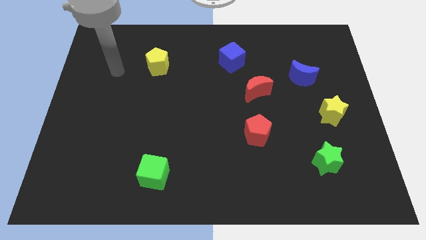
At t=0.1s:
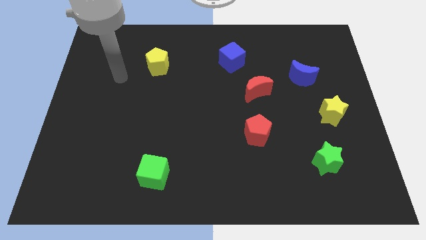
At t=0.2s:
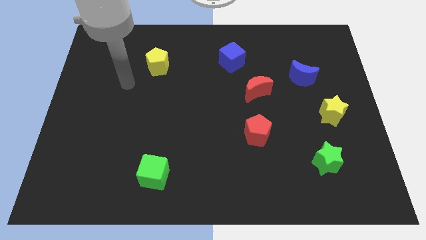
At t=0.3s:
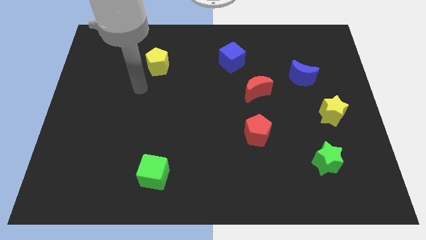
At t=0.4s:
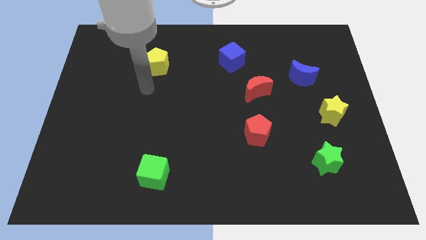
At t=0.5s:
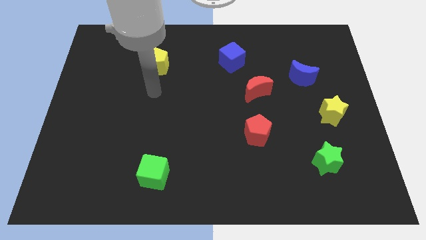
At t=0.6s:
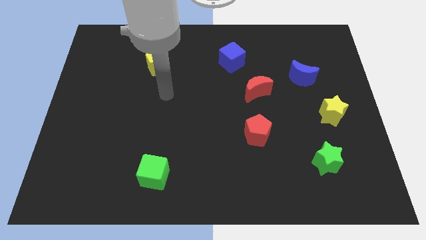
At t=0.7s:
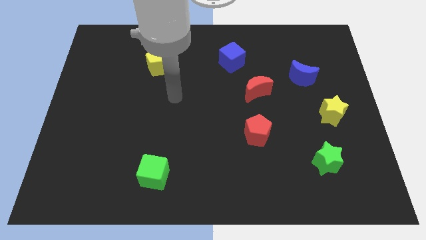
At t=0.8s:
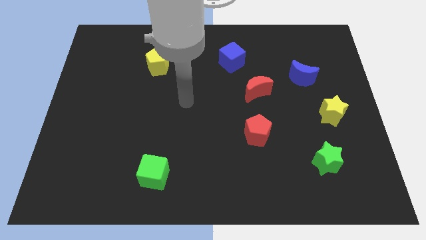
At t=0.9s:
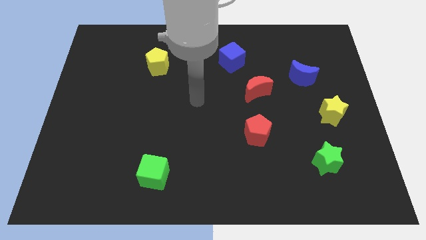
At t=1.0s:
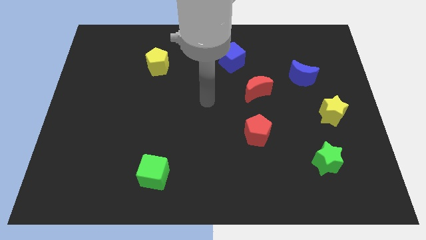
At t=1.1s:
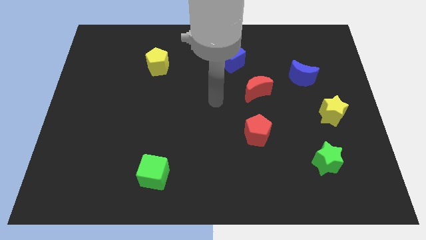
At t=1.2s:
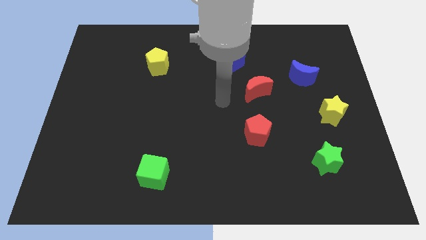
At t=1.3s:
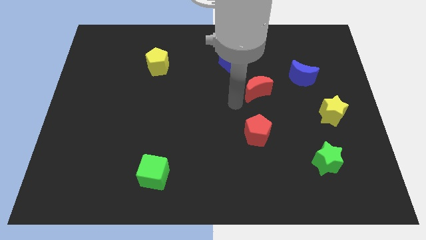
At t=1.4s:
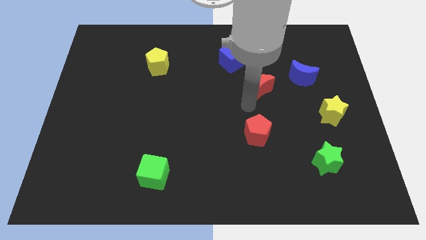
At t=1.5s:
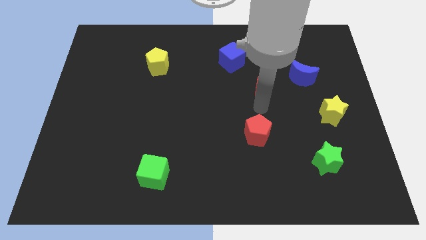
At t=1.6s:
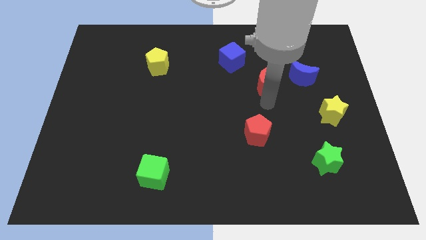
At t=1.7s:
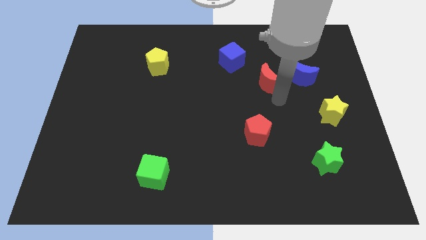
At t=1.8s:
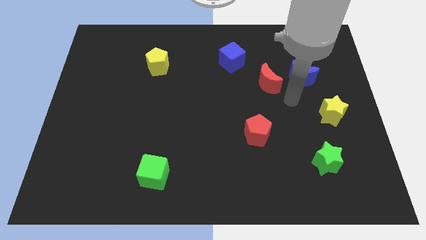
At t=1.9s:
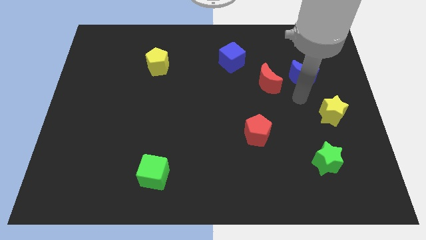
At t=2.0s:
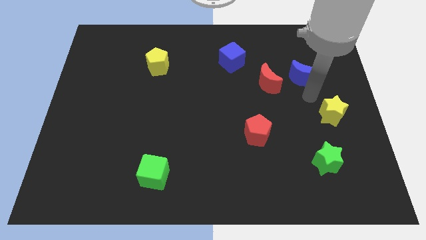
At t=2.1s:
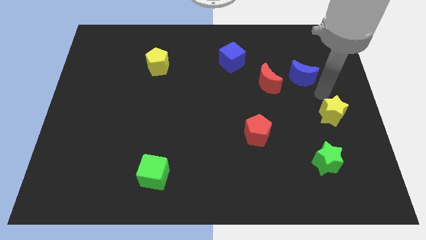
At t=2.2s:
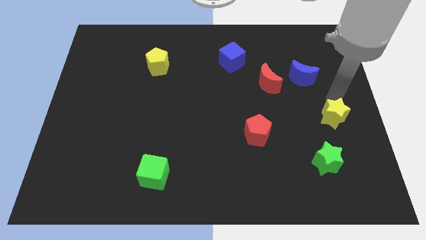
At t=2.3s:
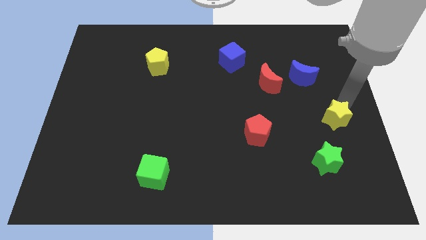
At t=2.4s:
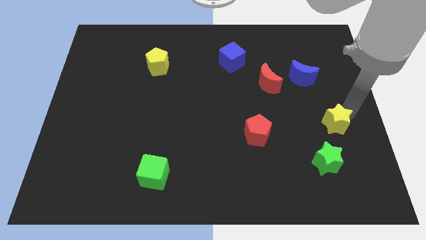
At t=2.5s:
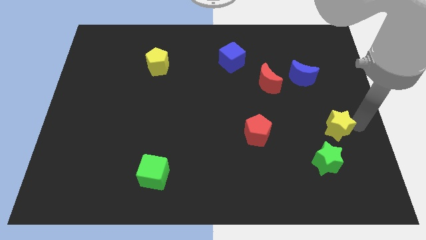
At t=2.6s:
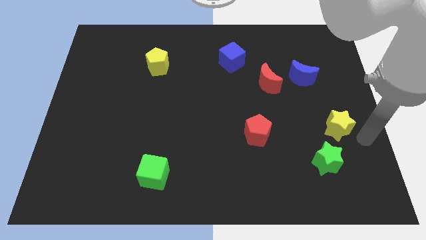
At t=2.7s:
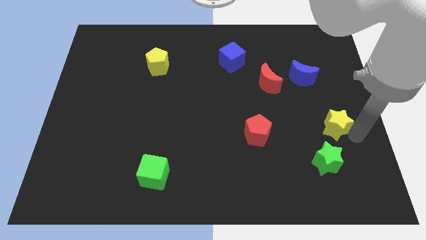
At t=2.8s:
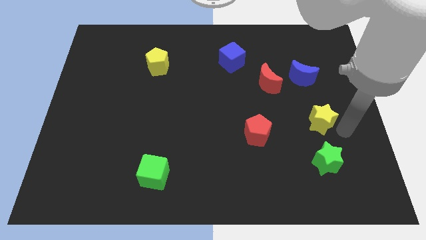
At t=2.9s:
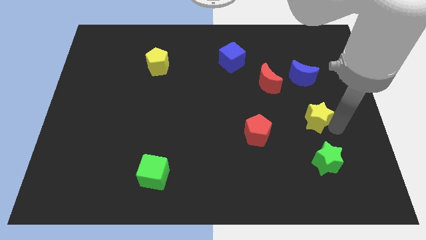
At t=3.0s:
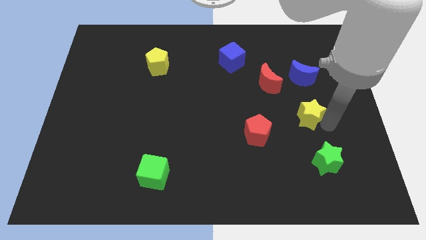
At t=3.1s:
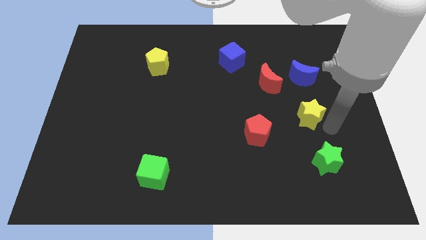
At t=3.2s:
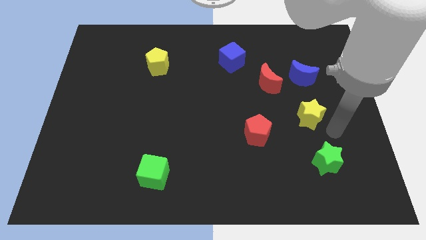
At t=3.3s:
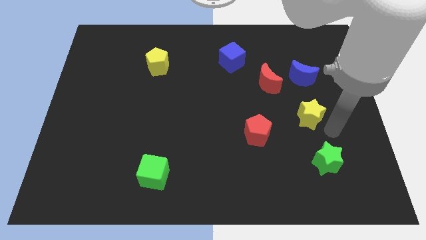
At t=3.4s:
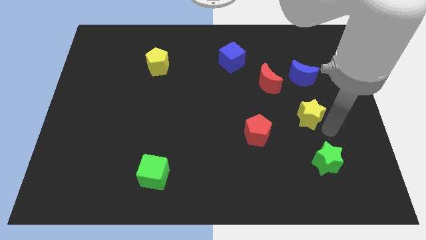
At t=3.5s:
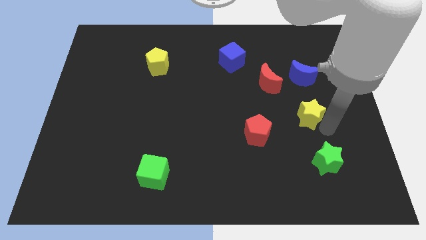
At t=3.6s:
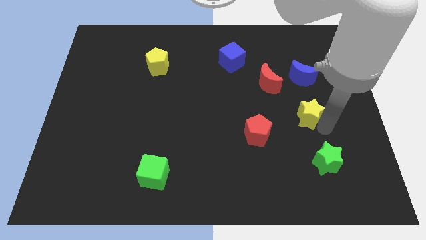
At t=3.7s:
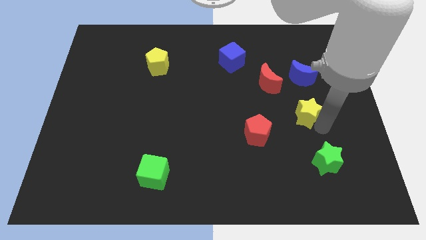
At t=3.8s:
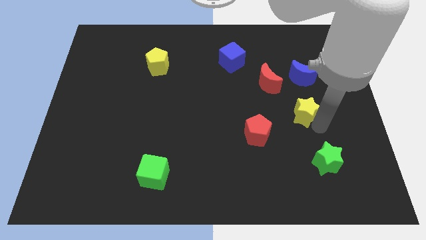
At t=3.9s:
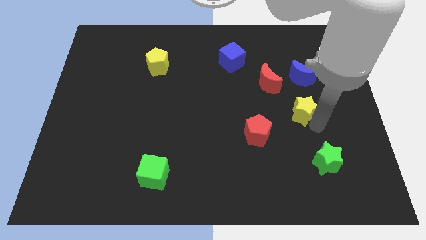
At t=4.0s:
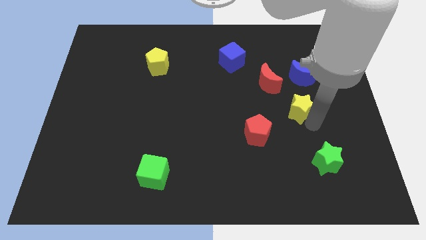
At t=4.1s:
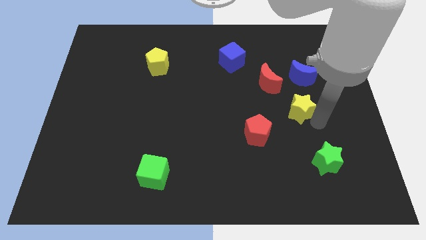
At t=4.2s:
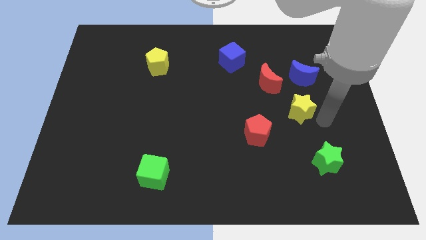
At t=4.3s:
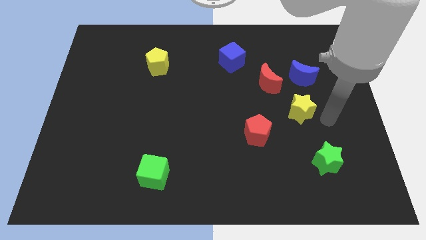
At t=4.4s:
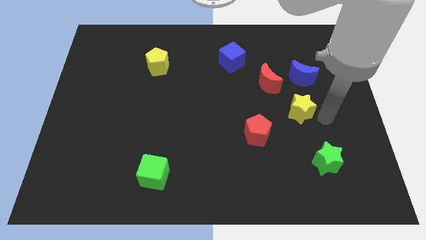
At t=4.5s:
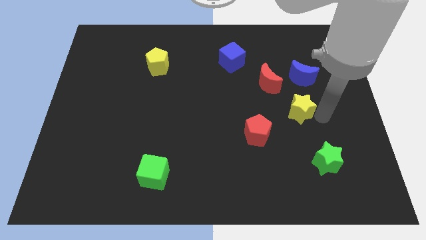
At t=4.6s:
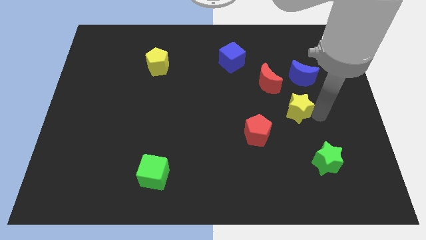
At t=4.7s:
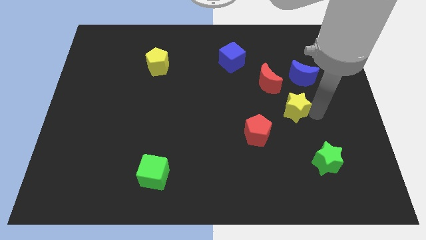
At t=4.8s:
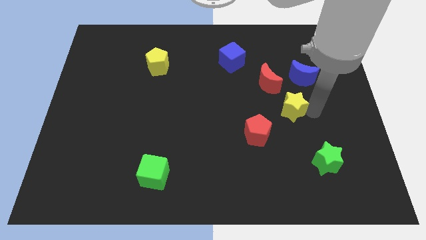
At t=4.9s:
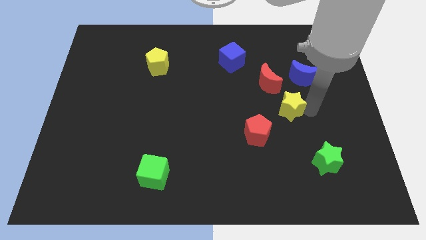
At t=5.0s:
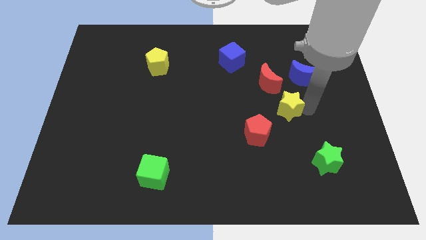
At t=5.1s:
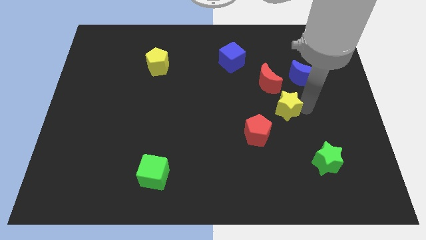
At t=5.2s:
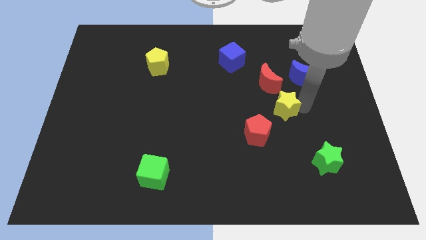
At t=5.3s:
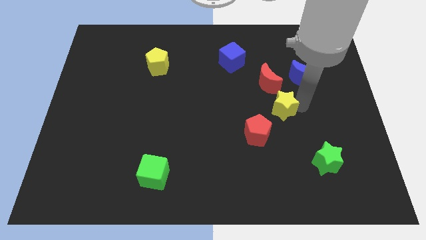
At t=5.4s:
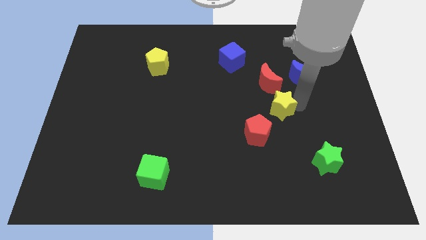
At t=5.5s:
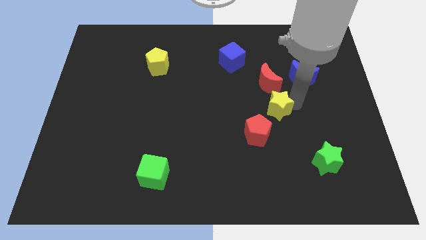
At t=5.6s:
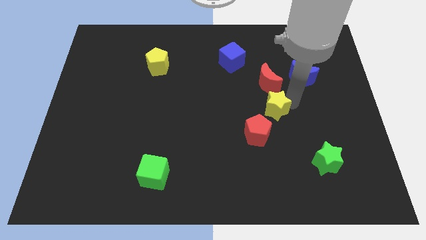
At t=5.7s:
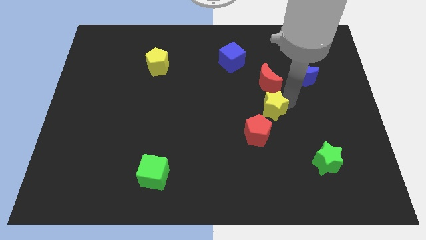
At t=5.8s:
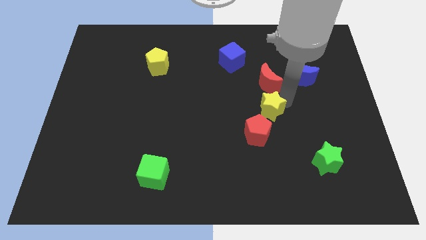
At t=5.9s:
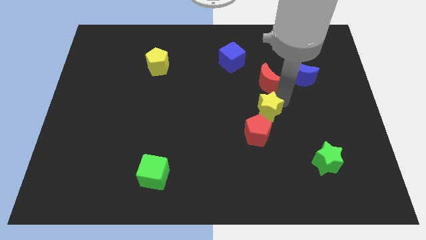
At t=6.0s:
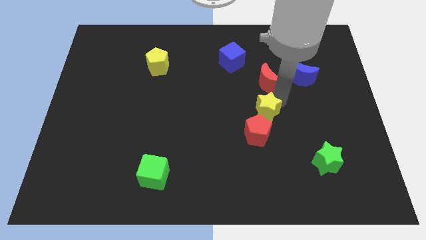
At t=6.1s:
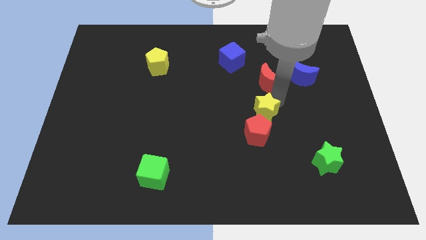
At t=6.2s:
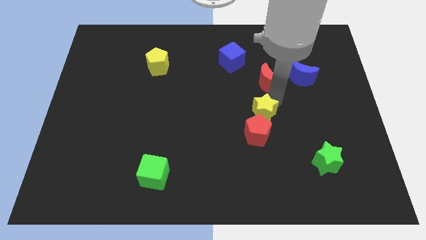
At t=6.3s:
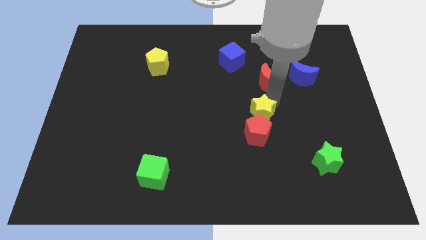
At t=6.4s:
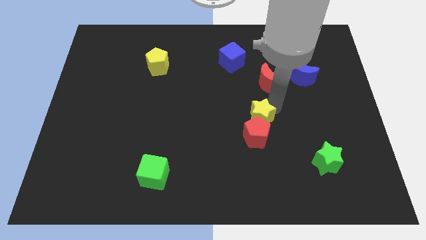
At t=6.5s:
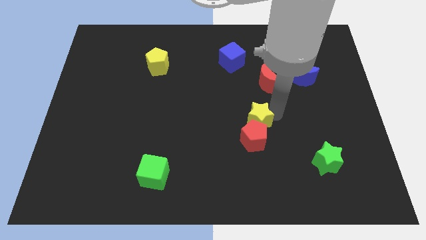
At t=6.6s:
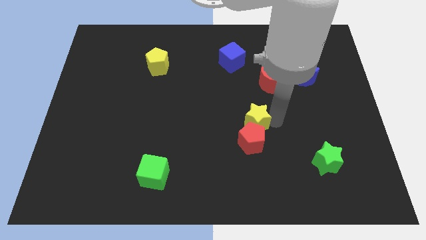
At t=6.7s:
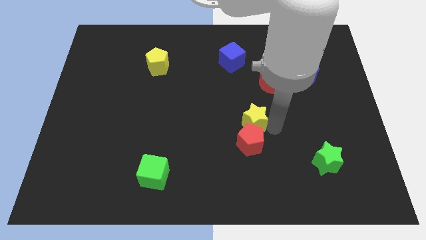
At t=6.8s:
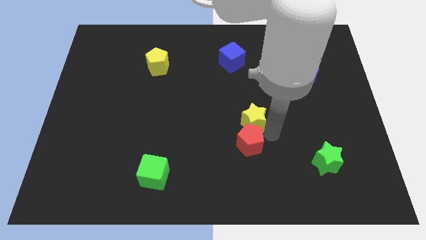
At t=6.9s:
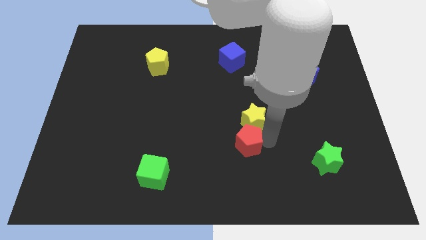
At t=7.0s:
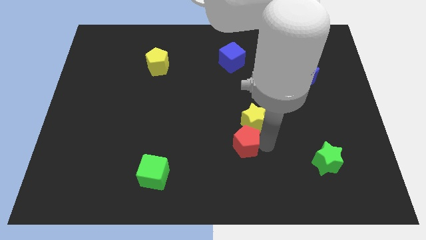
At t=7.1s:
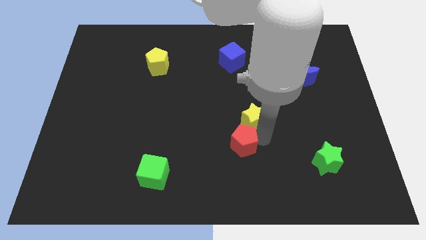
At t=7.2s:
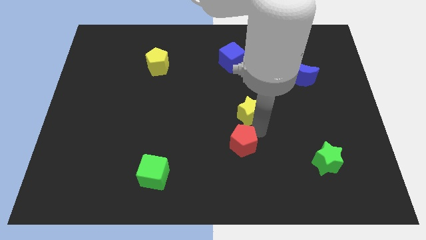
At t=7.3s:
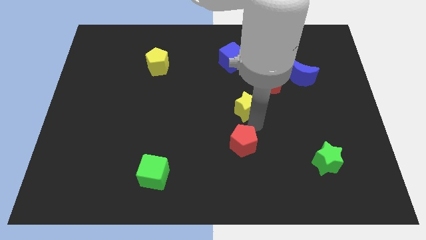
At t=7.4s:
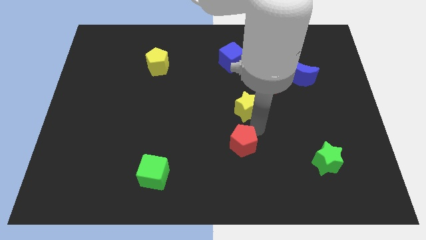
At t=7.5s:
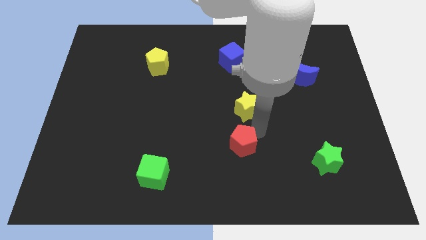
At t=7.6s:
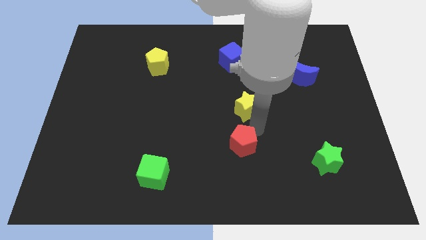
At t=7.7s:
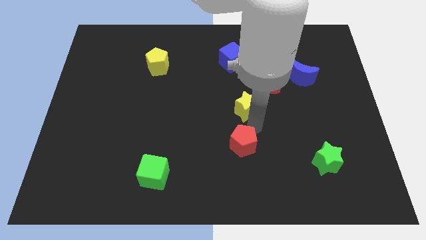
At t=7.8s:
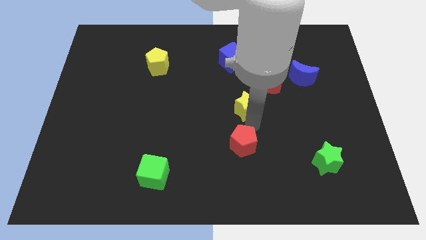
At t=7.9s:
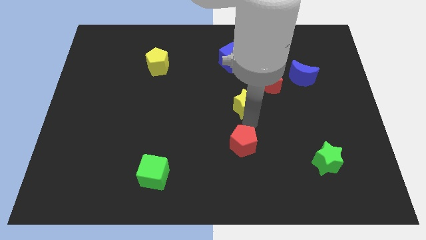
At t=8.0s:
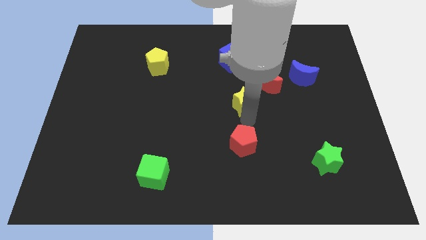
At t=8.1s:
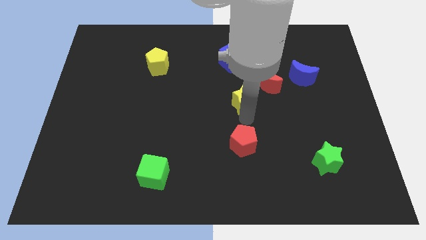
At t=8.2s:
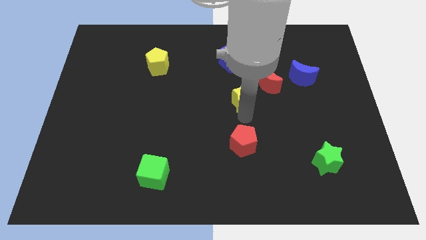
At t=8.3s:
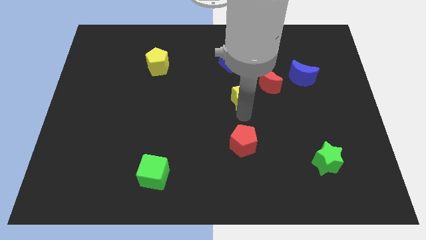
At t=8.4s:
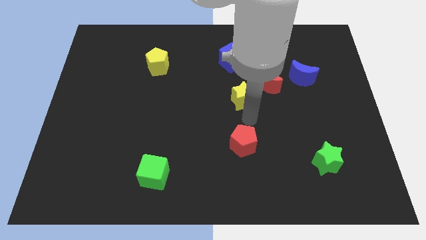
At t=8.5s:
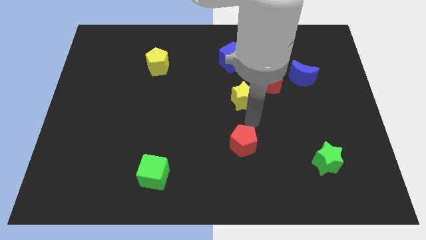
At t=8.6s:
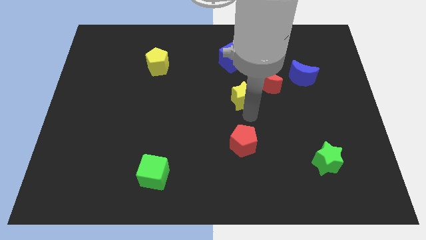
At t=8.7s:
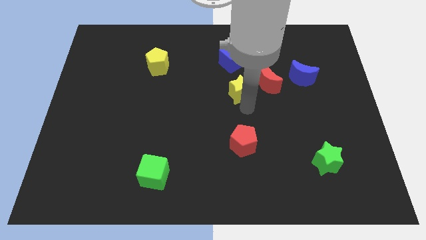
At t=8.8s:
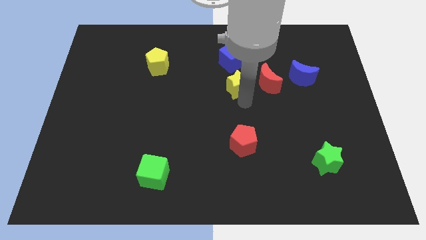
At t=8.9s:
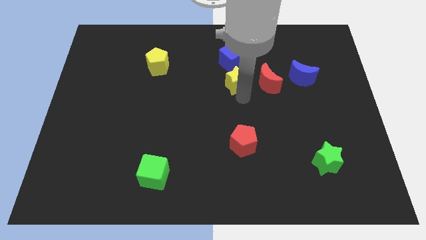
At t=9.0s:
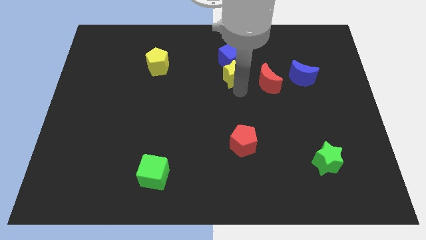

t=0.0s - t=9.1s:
slide the yellow star towards the blue cube
